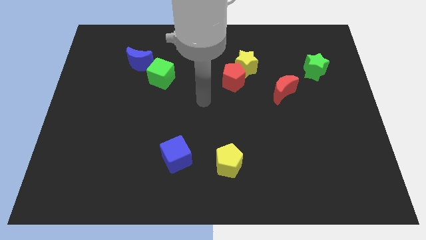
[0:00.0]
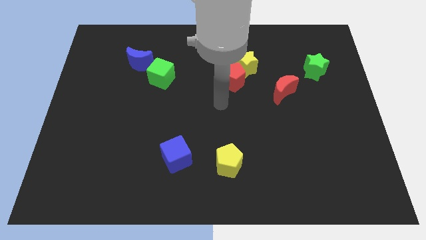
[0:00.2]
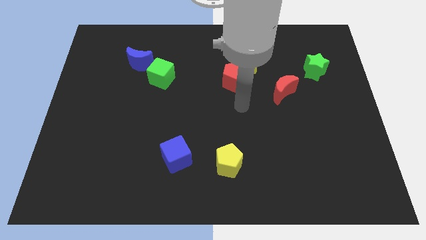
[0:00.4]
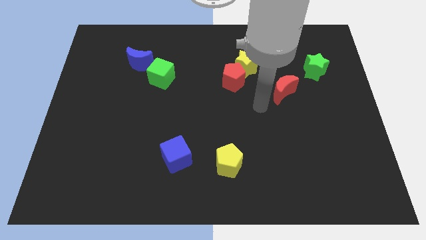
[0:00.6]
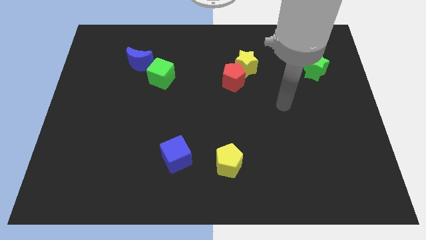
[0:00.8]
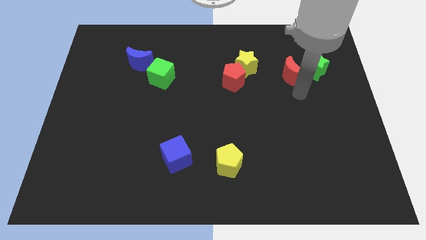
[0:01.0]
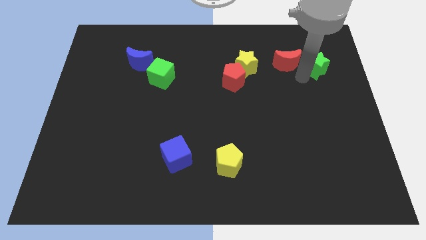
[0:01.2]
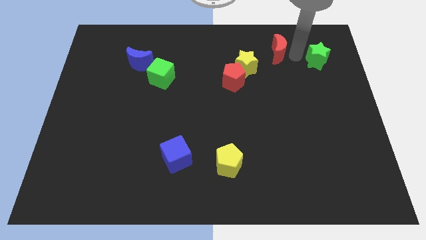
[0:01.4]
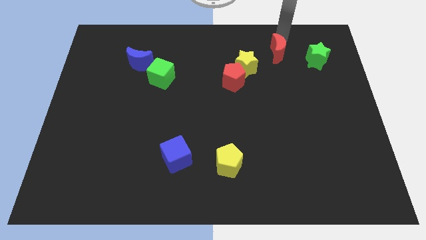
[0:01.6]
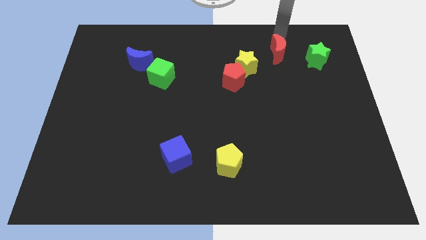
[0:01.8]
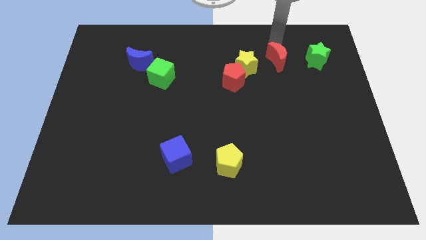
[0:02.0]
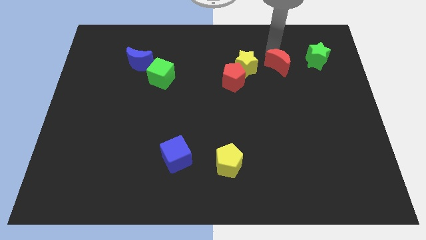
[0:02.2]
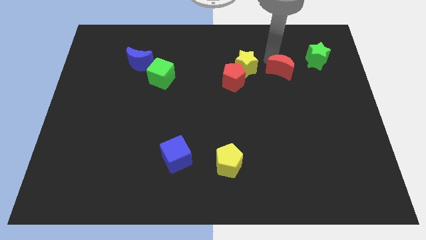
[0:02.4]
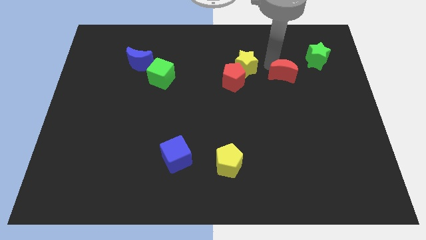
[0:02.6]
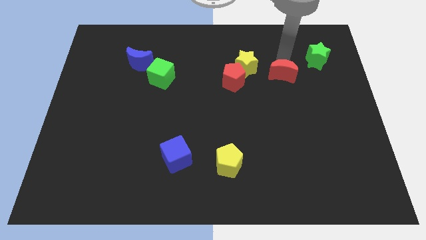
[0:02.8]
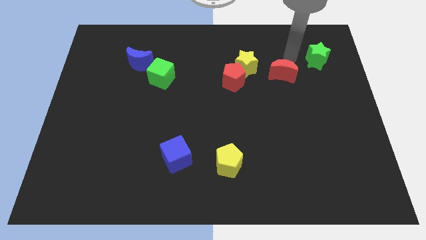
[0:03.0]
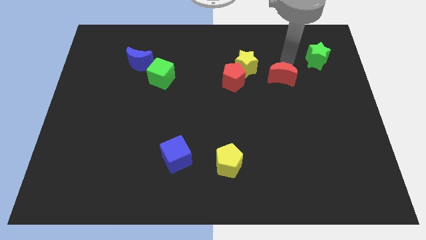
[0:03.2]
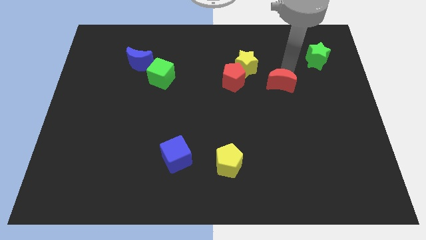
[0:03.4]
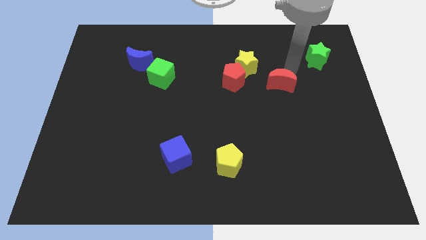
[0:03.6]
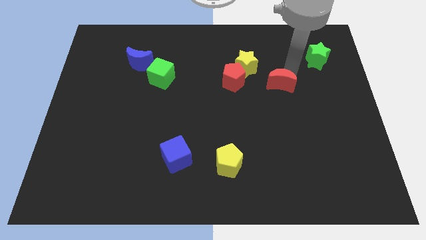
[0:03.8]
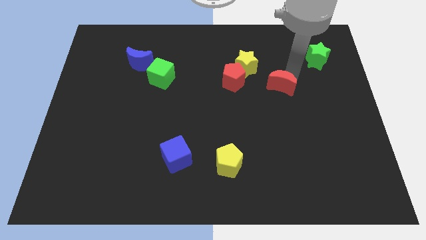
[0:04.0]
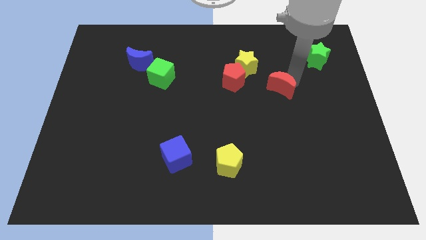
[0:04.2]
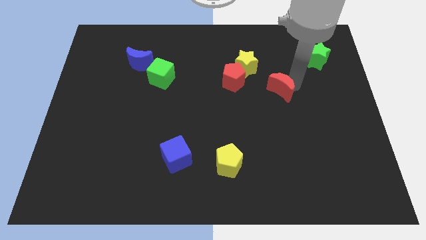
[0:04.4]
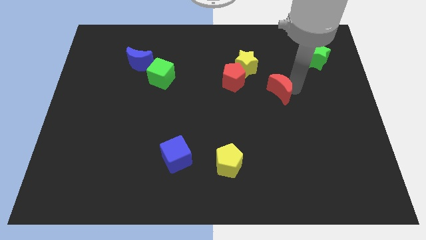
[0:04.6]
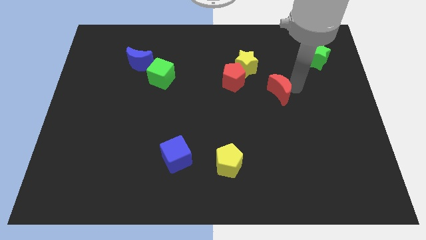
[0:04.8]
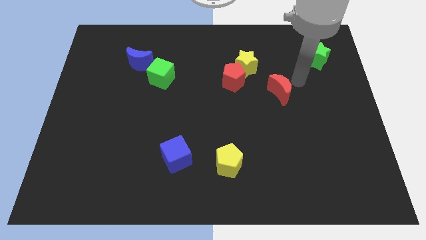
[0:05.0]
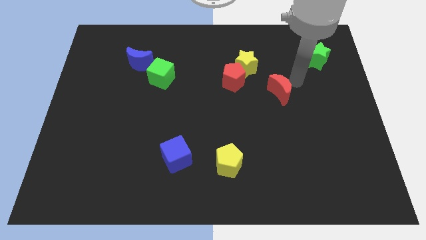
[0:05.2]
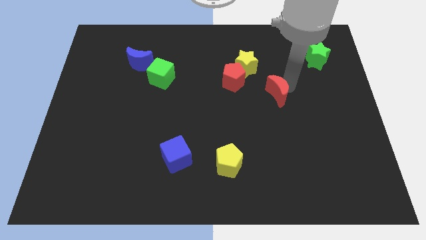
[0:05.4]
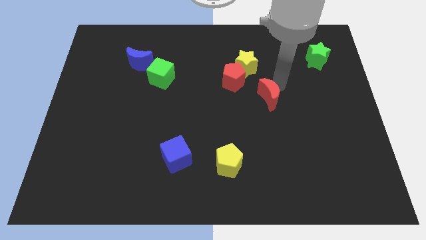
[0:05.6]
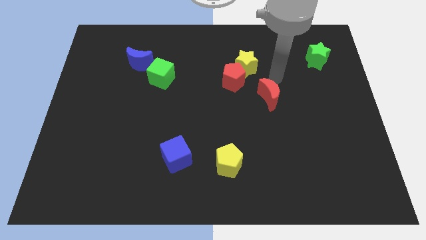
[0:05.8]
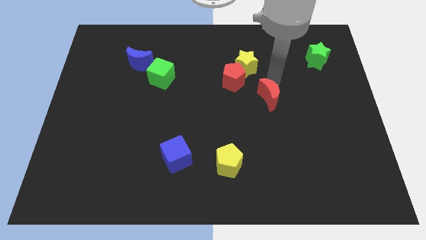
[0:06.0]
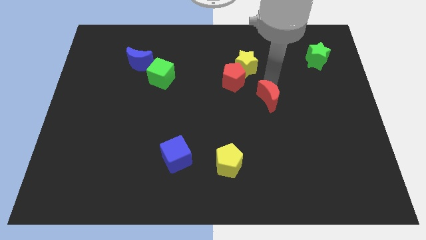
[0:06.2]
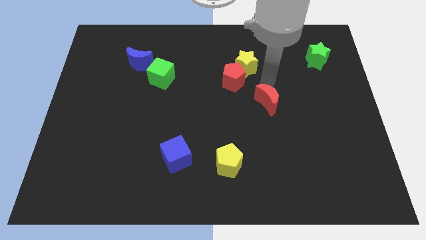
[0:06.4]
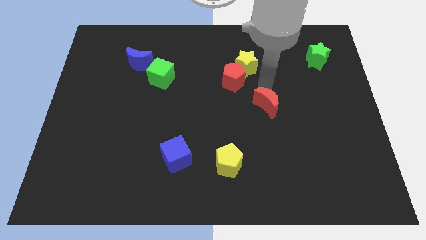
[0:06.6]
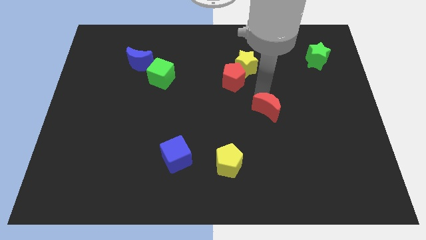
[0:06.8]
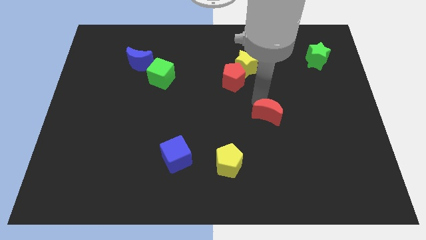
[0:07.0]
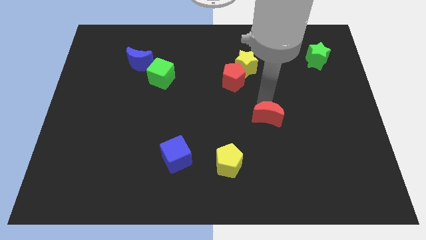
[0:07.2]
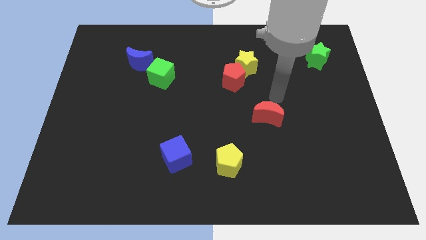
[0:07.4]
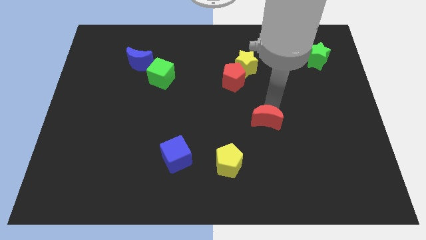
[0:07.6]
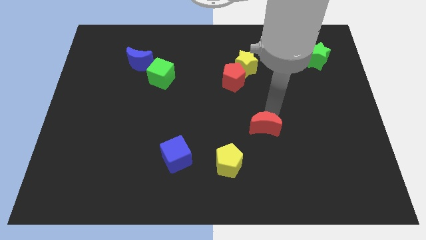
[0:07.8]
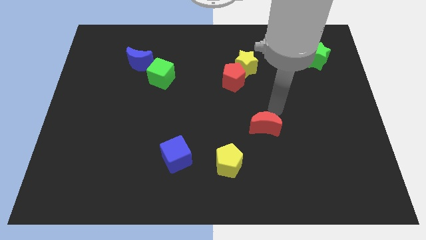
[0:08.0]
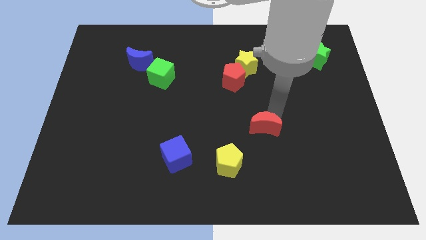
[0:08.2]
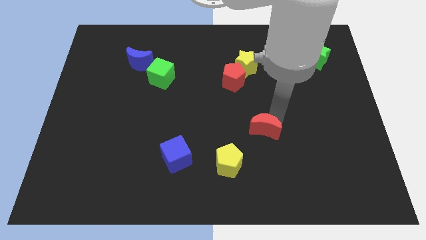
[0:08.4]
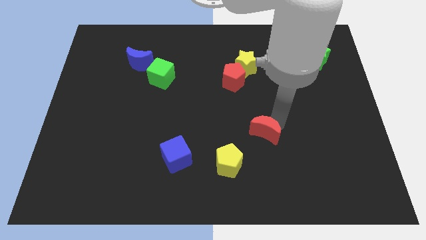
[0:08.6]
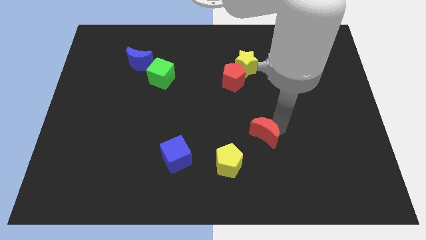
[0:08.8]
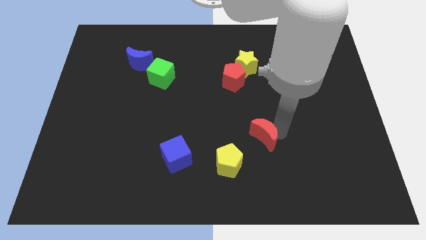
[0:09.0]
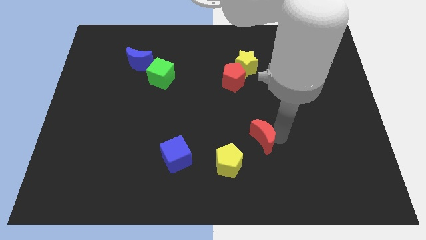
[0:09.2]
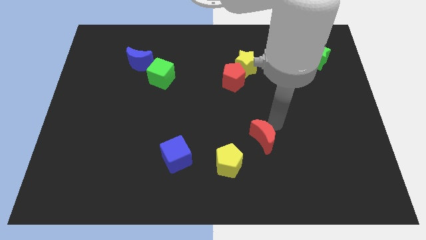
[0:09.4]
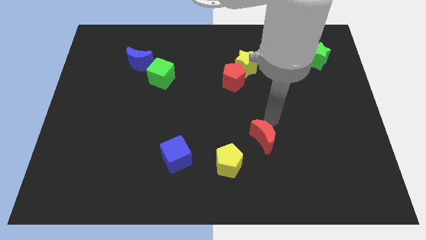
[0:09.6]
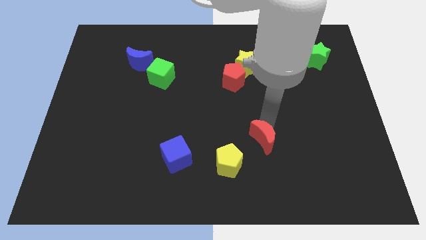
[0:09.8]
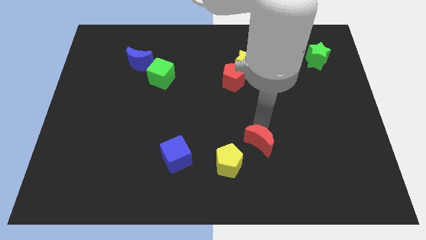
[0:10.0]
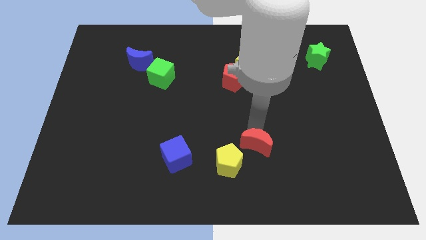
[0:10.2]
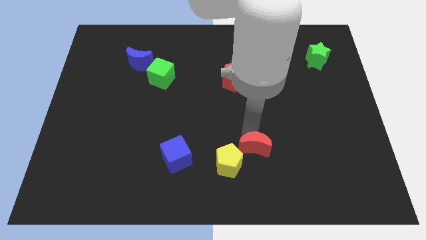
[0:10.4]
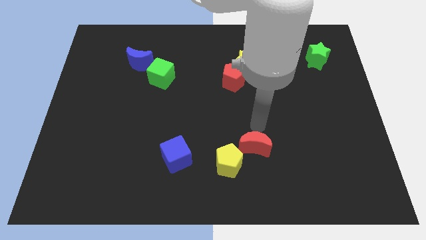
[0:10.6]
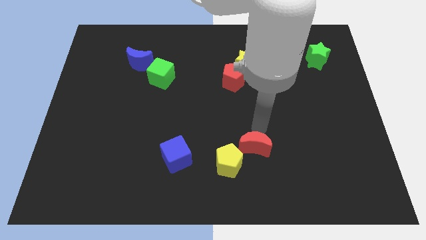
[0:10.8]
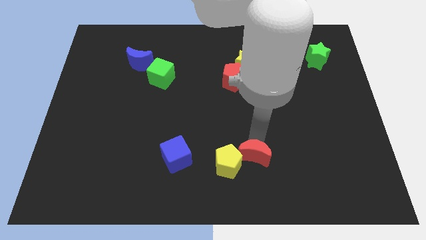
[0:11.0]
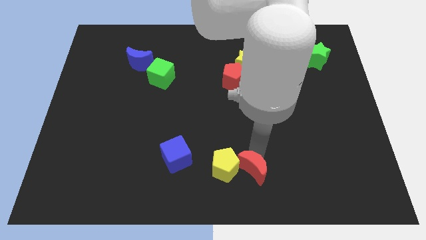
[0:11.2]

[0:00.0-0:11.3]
push the red moon to the bottom

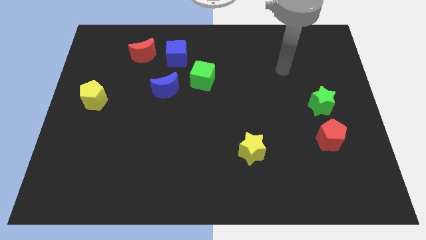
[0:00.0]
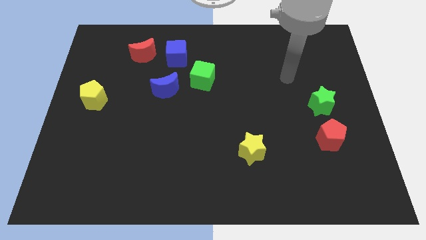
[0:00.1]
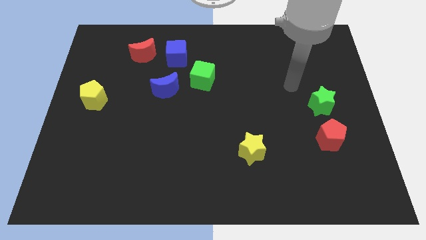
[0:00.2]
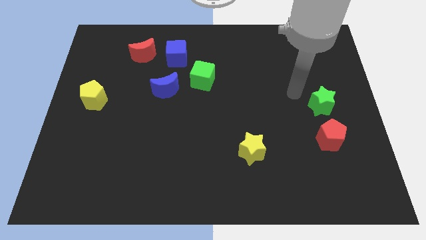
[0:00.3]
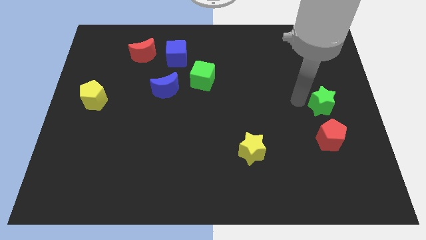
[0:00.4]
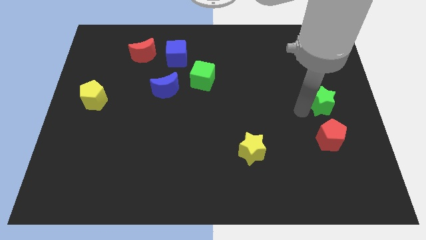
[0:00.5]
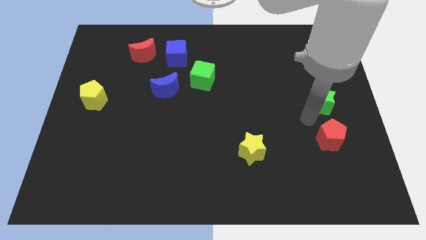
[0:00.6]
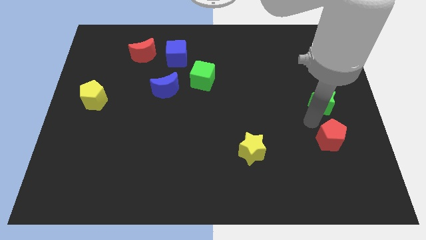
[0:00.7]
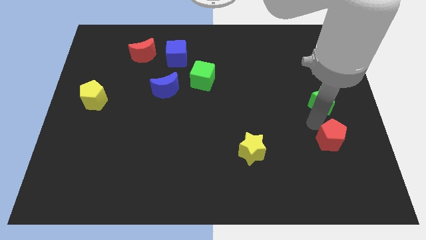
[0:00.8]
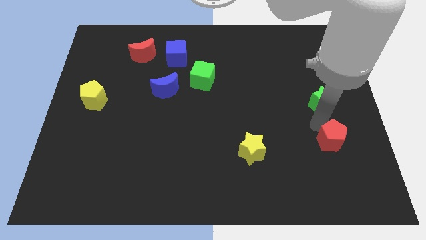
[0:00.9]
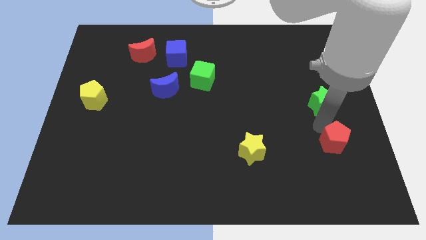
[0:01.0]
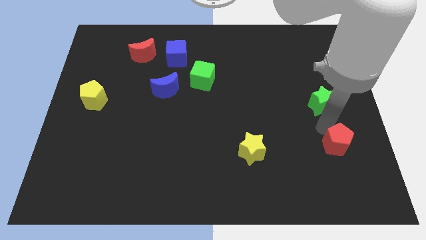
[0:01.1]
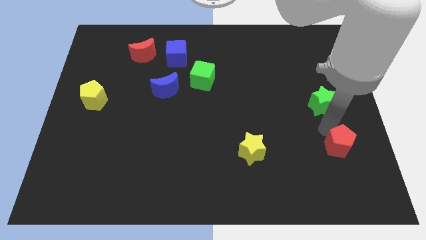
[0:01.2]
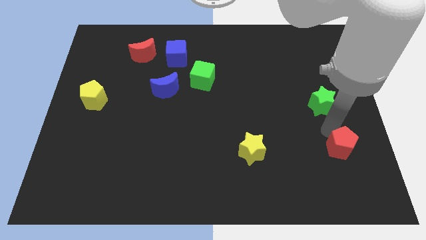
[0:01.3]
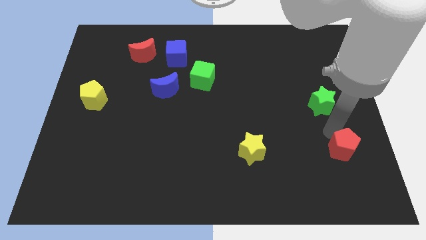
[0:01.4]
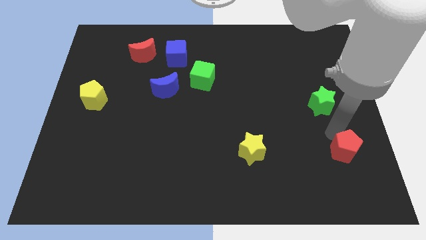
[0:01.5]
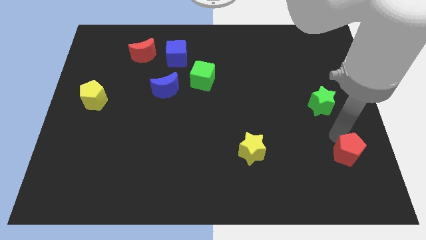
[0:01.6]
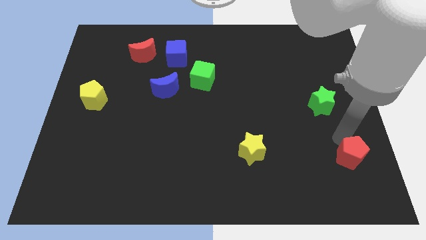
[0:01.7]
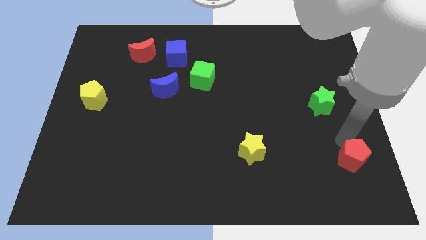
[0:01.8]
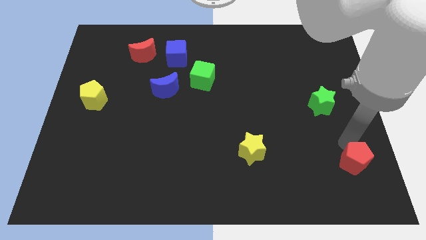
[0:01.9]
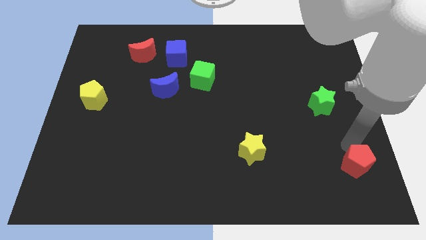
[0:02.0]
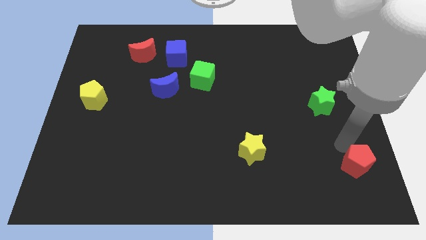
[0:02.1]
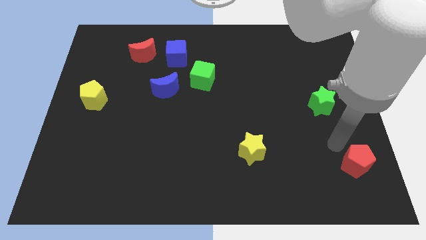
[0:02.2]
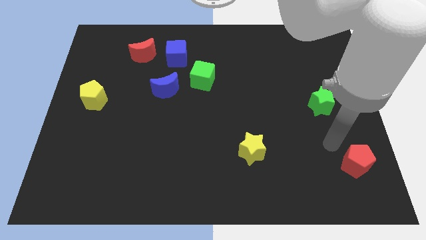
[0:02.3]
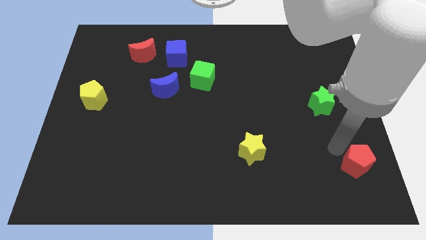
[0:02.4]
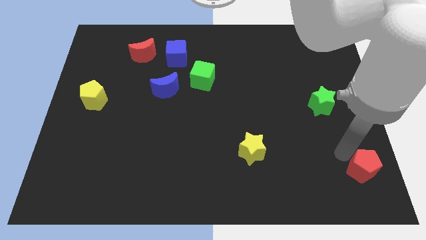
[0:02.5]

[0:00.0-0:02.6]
push the red pentagon to the bottom right
